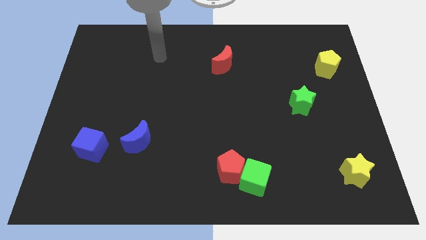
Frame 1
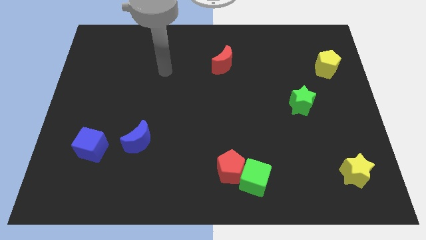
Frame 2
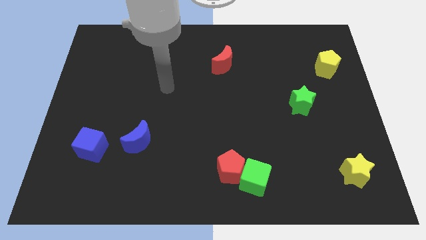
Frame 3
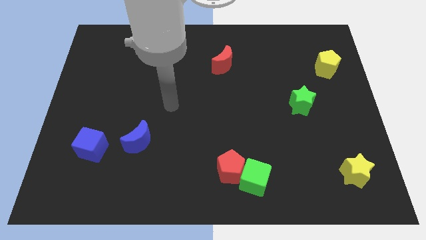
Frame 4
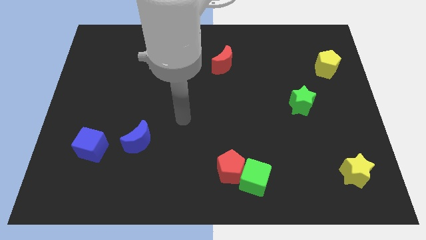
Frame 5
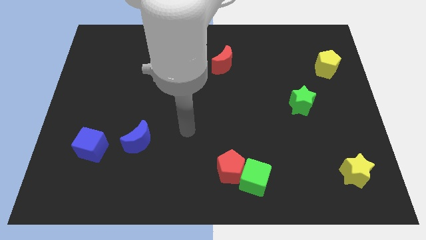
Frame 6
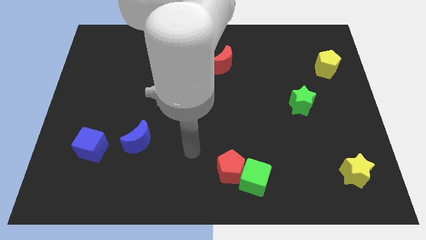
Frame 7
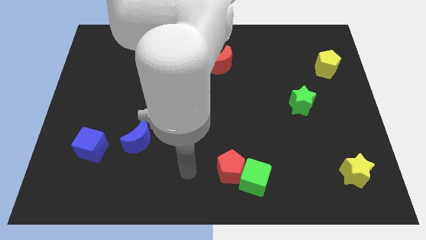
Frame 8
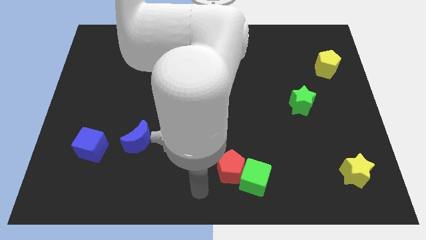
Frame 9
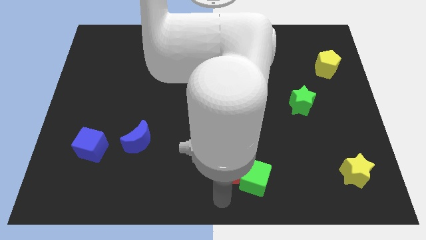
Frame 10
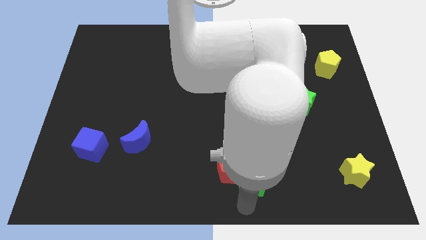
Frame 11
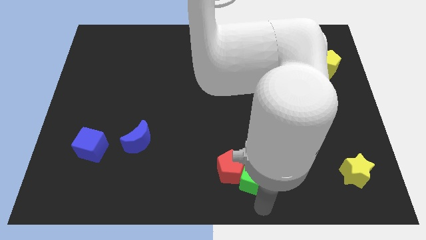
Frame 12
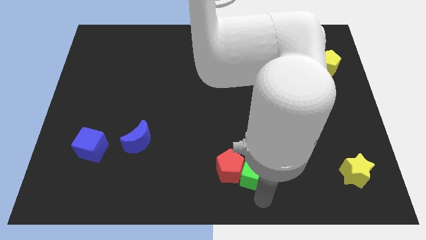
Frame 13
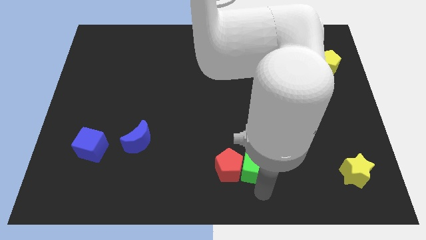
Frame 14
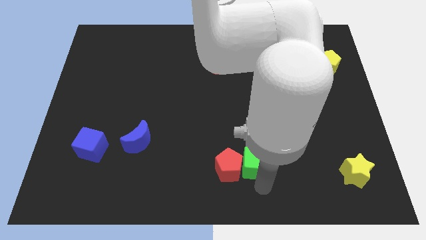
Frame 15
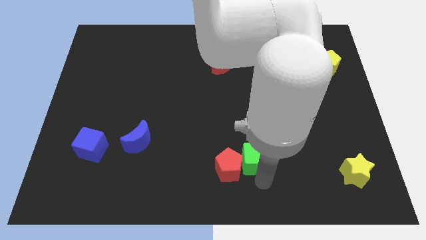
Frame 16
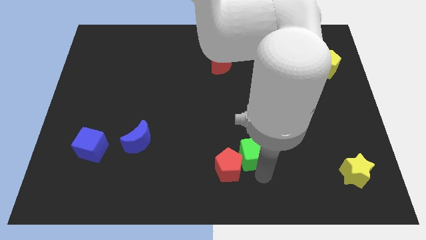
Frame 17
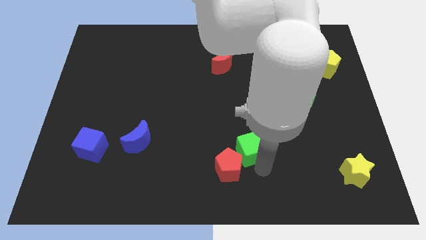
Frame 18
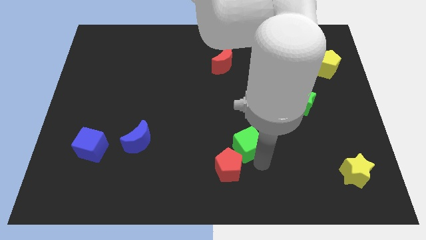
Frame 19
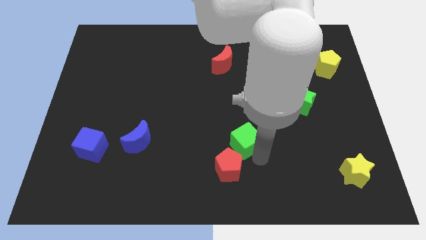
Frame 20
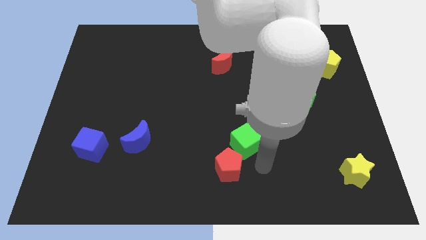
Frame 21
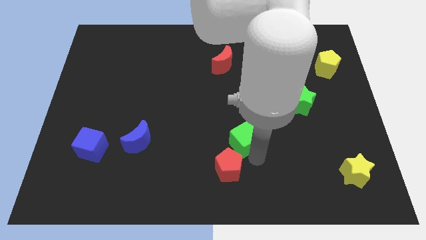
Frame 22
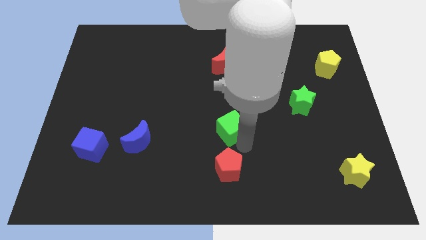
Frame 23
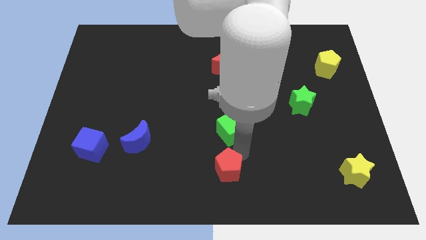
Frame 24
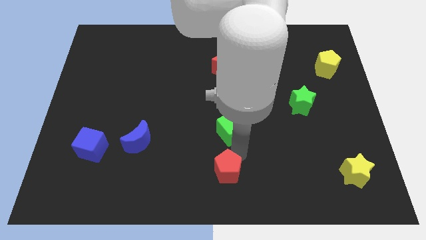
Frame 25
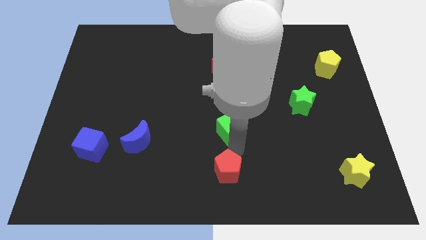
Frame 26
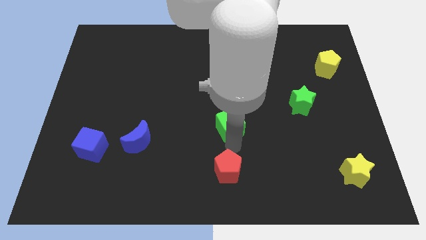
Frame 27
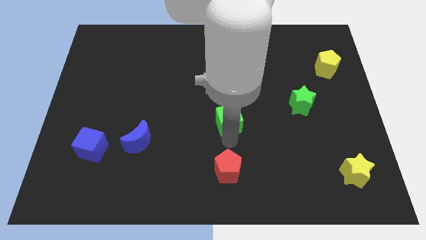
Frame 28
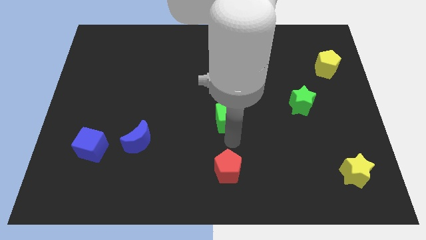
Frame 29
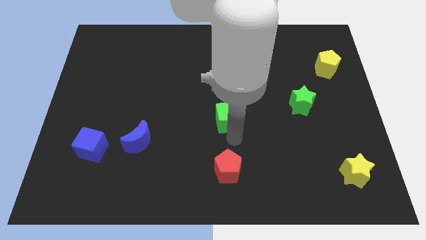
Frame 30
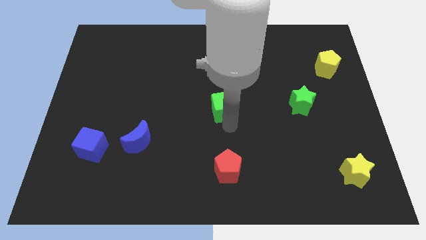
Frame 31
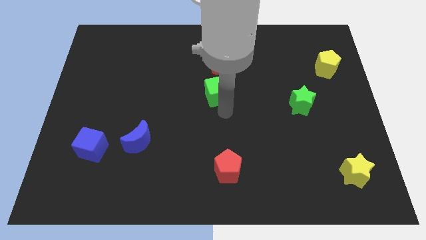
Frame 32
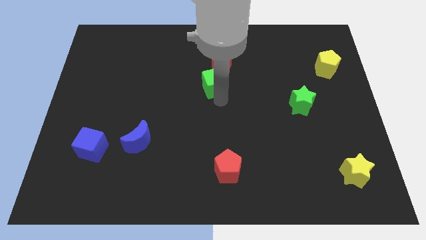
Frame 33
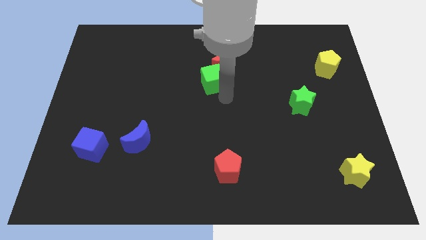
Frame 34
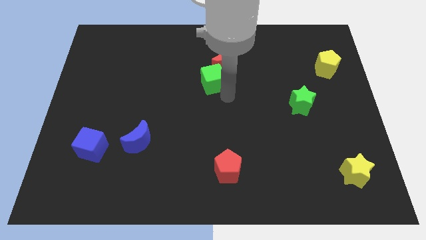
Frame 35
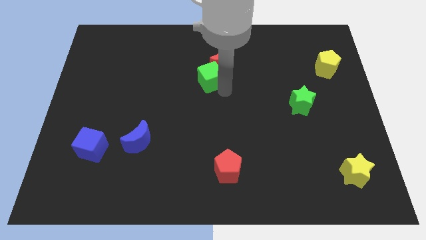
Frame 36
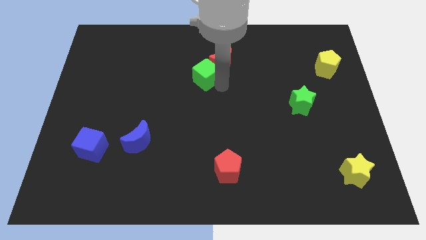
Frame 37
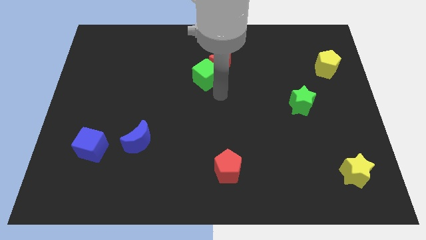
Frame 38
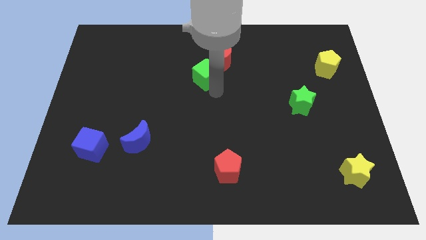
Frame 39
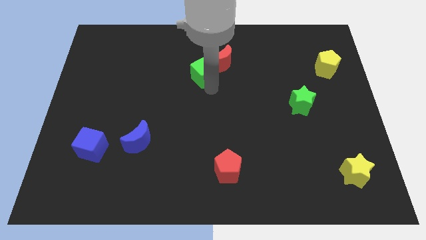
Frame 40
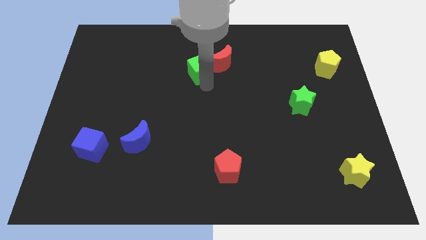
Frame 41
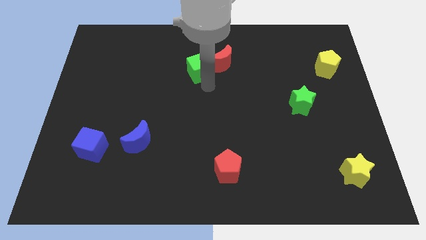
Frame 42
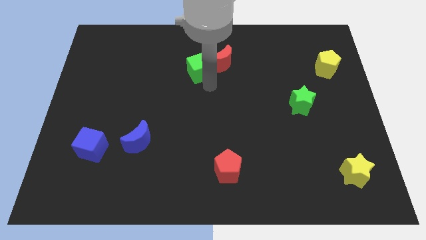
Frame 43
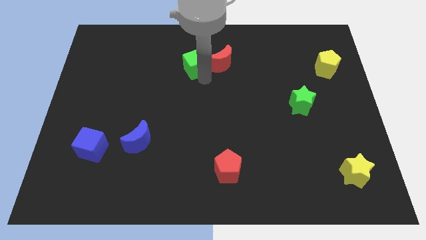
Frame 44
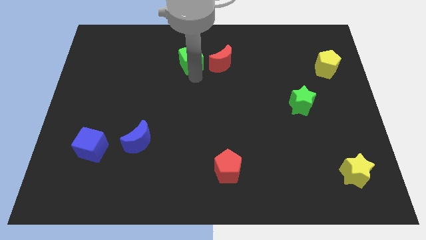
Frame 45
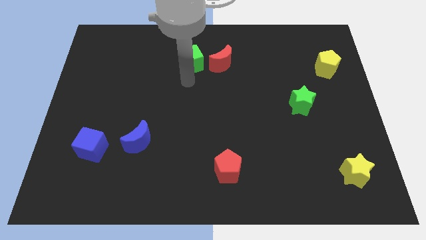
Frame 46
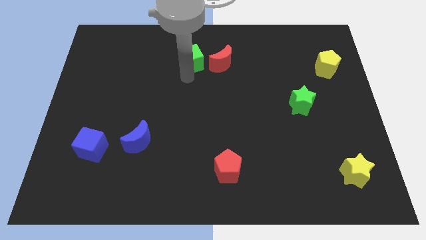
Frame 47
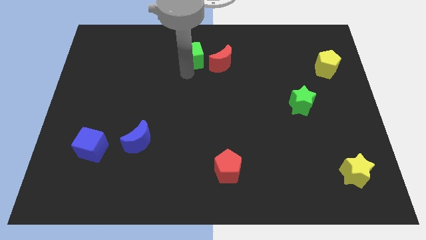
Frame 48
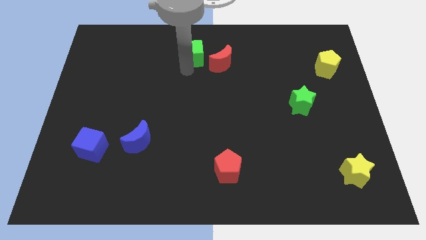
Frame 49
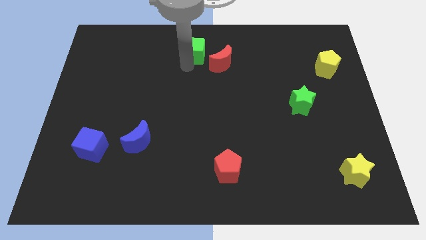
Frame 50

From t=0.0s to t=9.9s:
push the green cube to the top

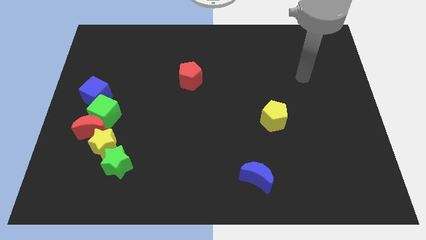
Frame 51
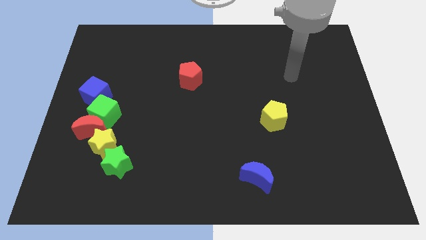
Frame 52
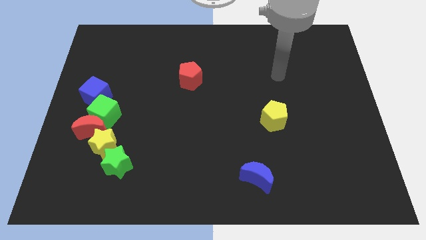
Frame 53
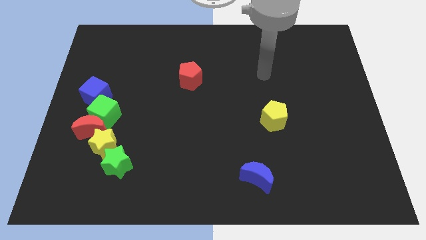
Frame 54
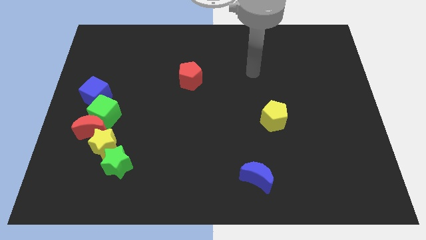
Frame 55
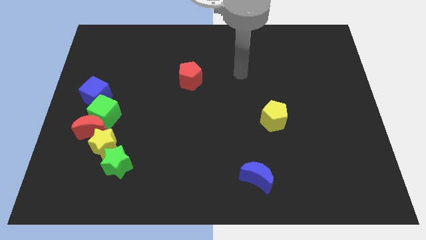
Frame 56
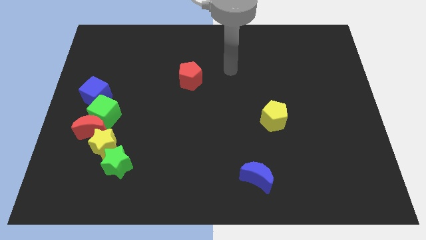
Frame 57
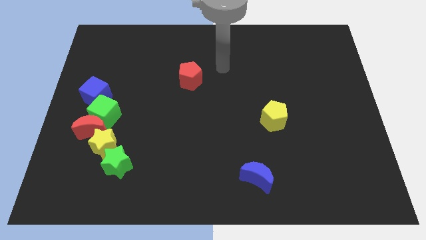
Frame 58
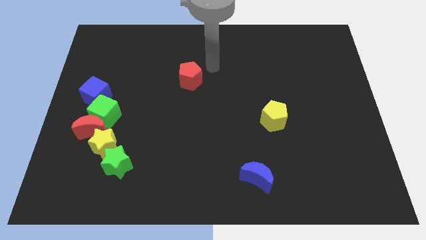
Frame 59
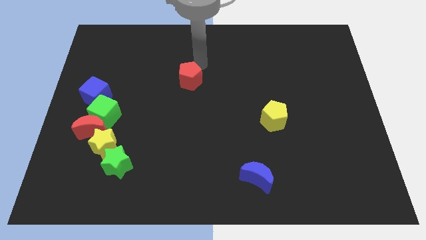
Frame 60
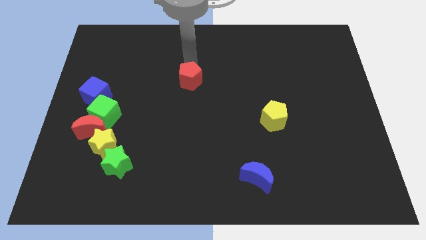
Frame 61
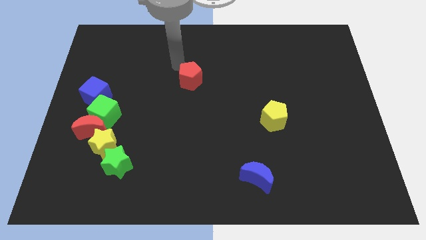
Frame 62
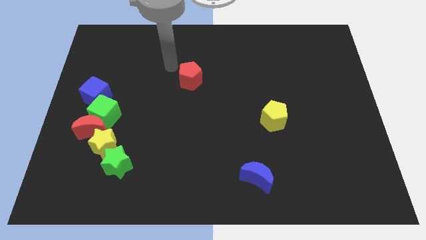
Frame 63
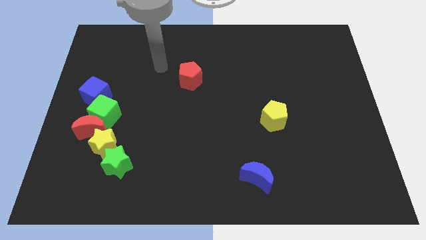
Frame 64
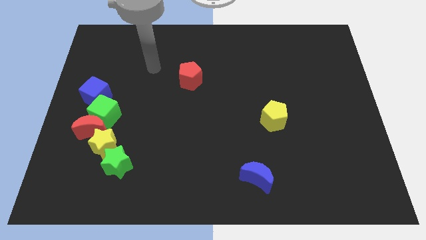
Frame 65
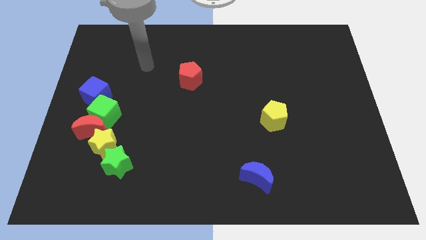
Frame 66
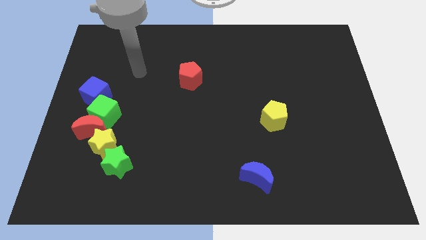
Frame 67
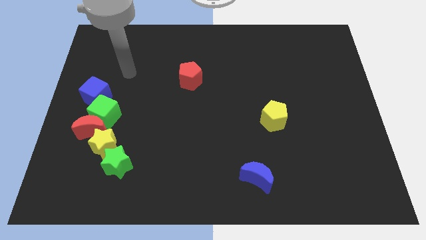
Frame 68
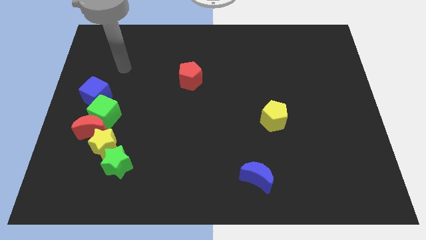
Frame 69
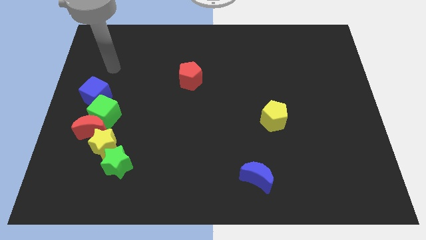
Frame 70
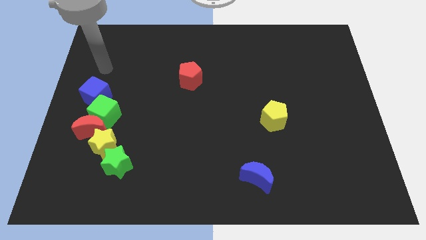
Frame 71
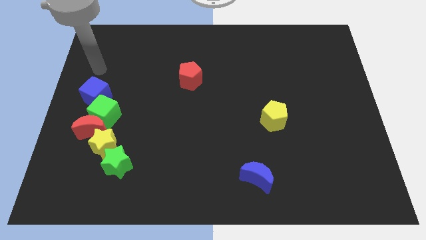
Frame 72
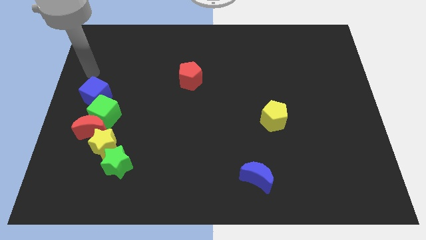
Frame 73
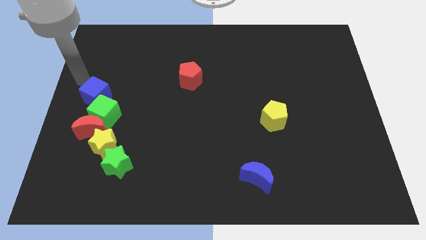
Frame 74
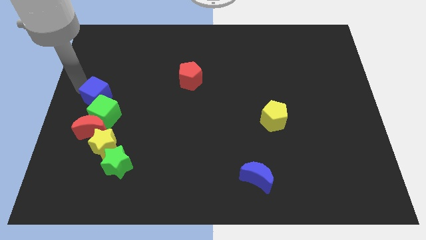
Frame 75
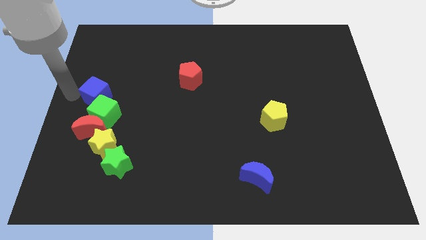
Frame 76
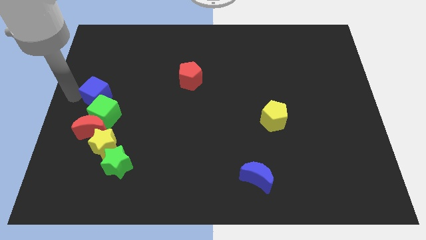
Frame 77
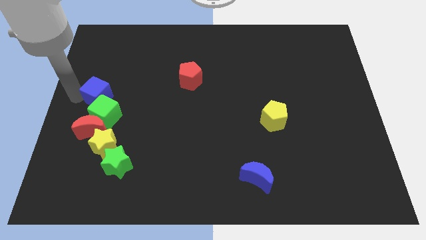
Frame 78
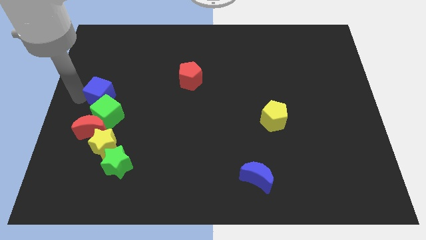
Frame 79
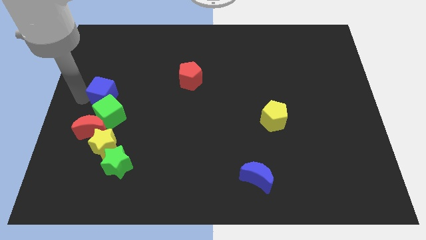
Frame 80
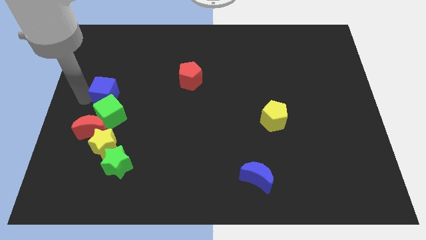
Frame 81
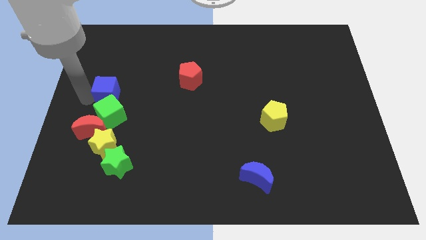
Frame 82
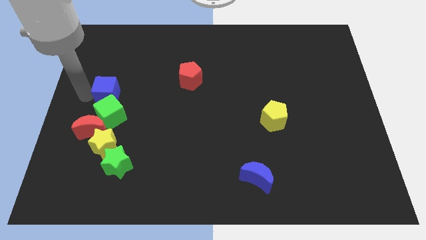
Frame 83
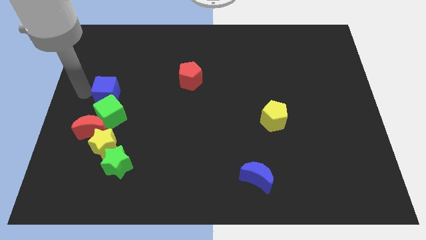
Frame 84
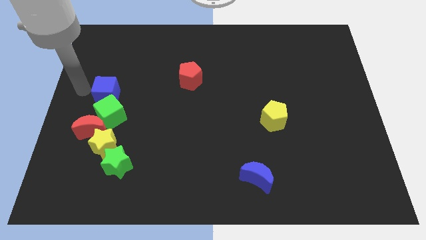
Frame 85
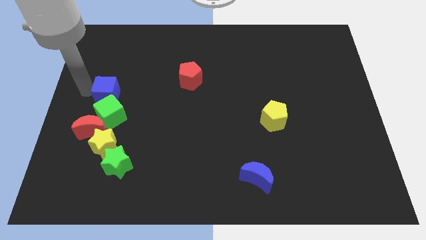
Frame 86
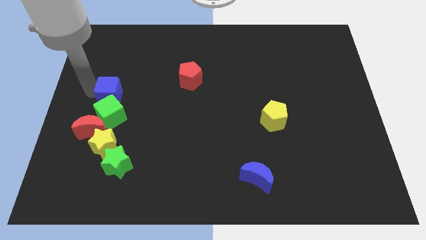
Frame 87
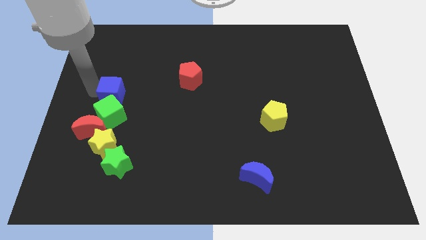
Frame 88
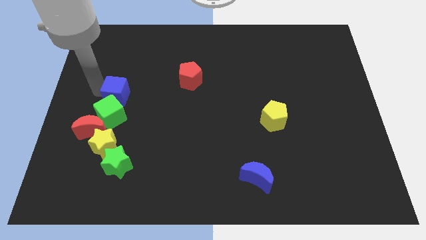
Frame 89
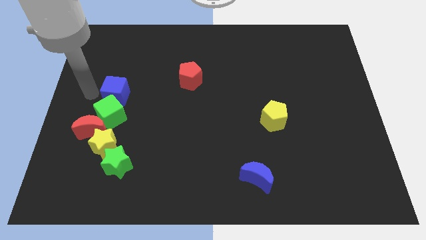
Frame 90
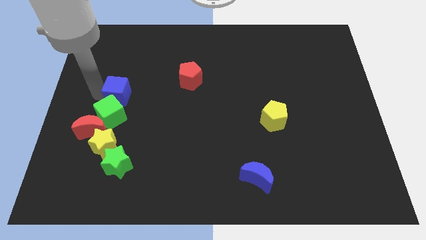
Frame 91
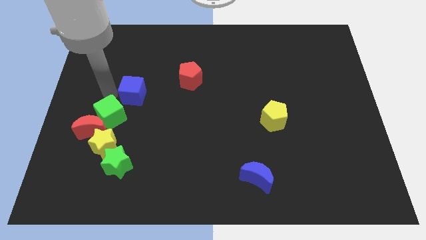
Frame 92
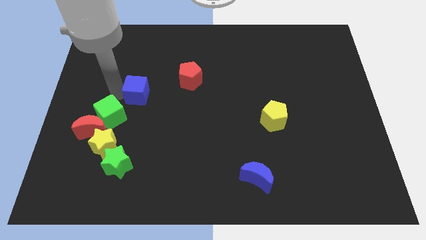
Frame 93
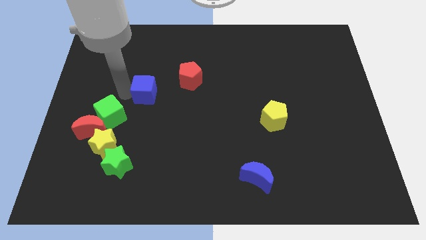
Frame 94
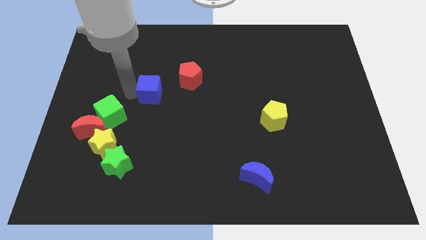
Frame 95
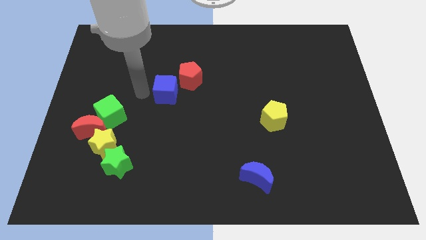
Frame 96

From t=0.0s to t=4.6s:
put the blue cube to the center
